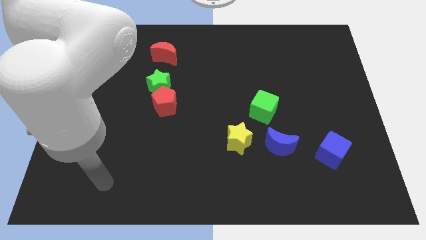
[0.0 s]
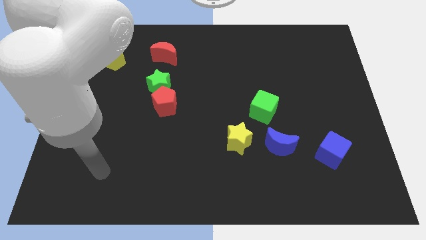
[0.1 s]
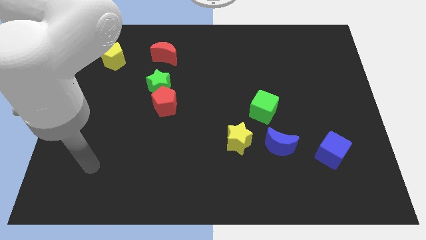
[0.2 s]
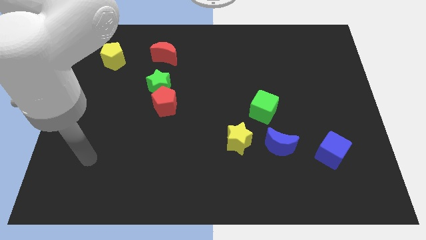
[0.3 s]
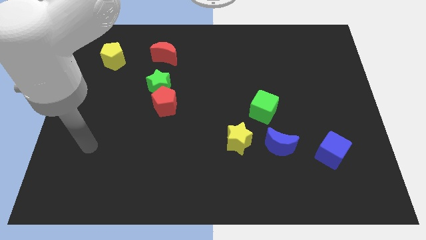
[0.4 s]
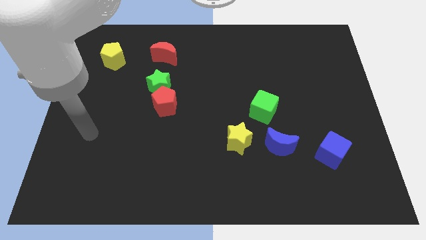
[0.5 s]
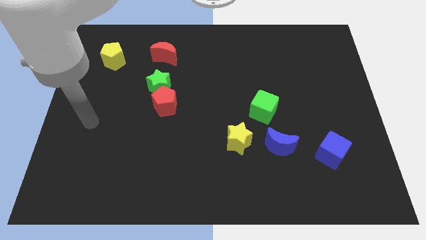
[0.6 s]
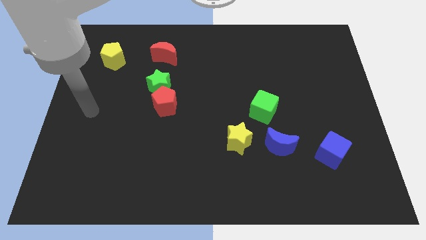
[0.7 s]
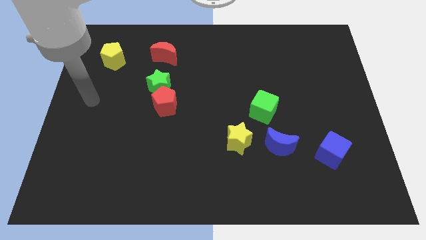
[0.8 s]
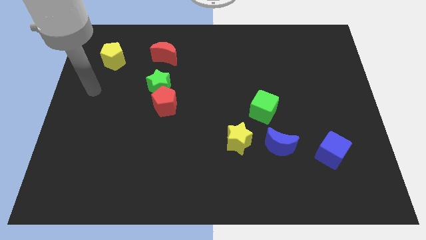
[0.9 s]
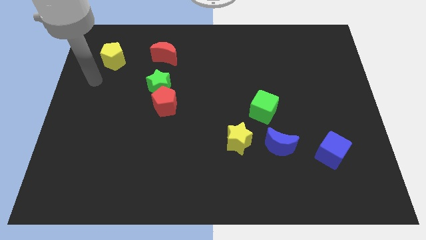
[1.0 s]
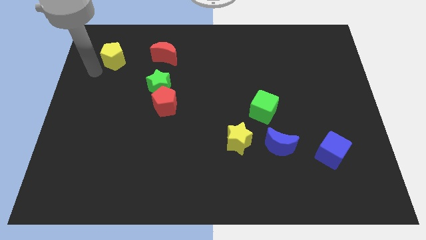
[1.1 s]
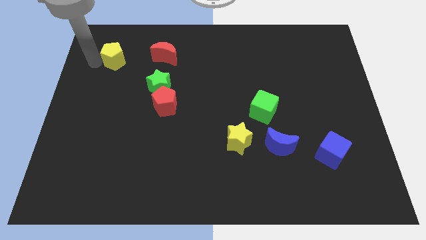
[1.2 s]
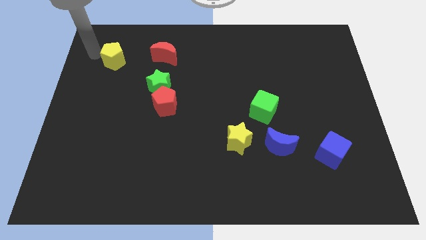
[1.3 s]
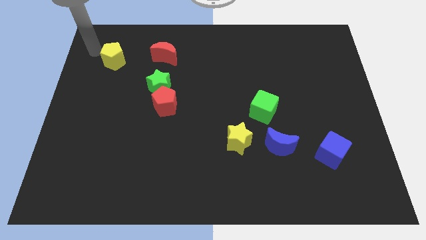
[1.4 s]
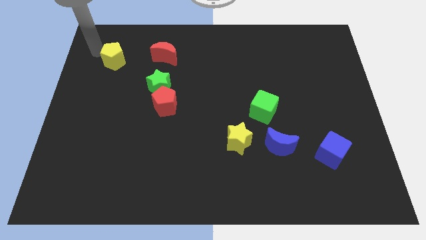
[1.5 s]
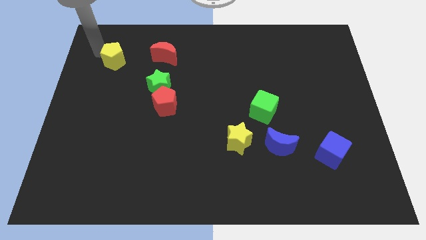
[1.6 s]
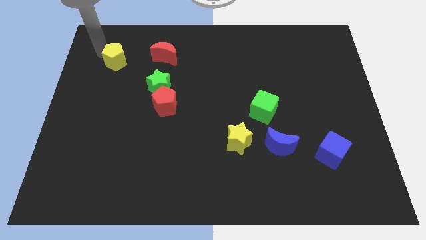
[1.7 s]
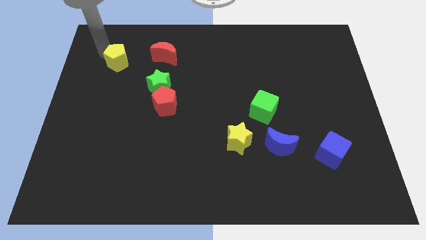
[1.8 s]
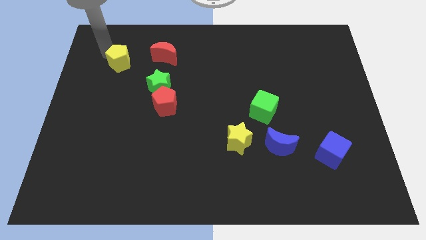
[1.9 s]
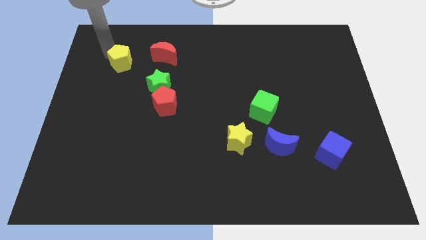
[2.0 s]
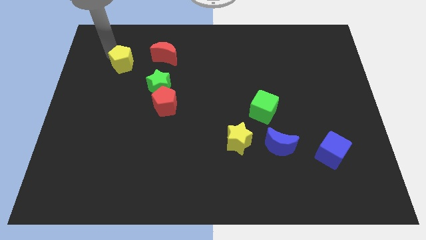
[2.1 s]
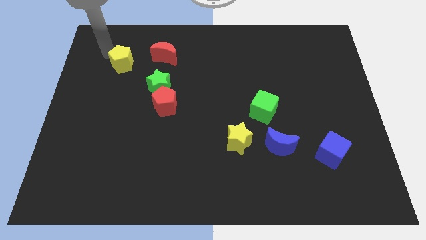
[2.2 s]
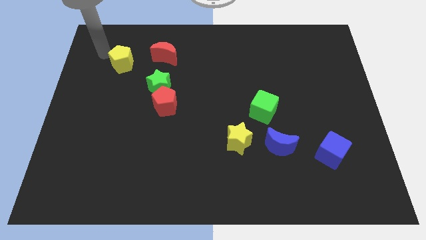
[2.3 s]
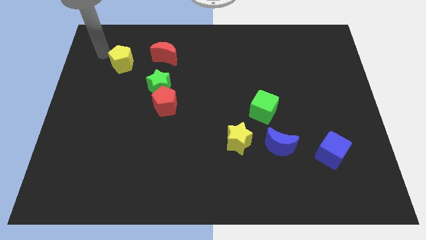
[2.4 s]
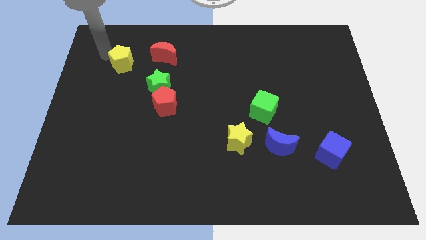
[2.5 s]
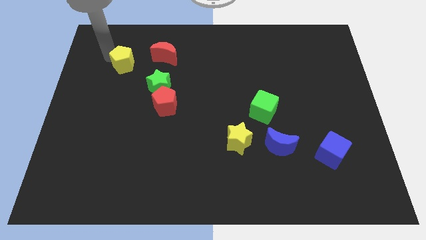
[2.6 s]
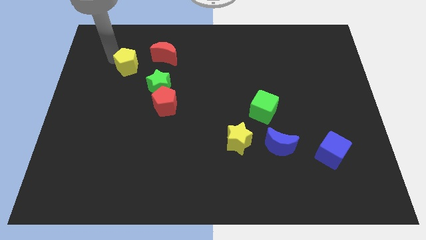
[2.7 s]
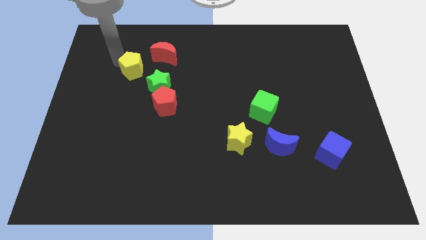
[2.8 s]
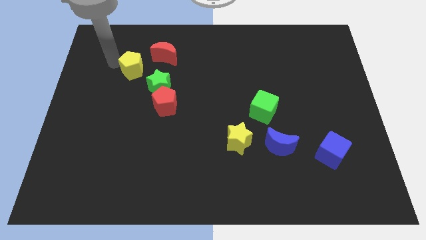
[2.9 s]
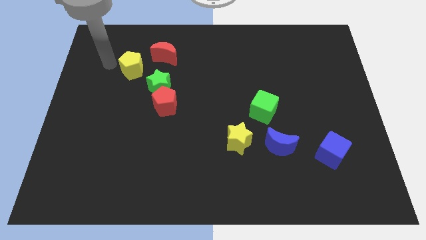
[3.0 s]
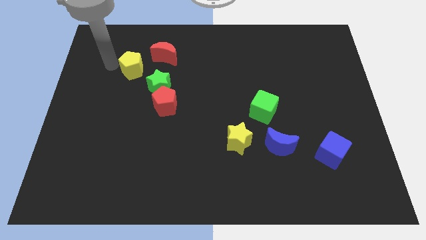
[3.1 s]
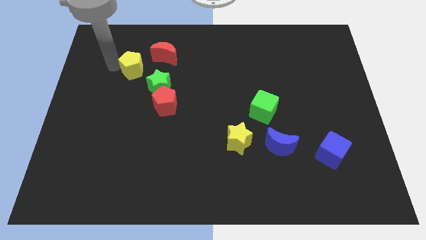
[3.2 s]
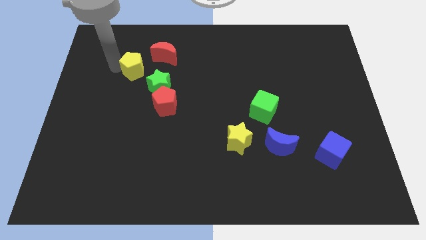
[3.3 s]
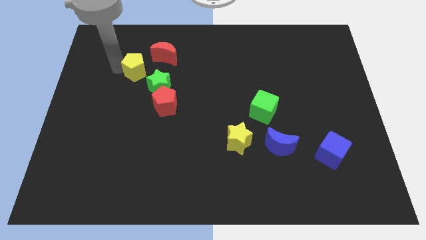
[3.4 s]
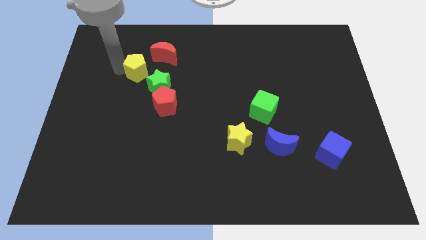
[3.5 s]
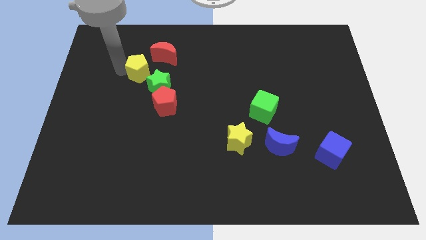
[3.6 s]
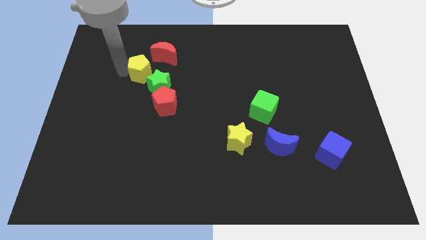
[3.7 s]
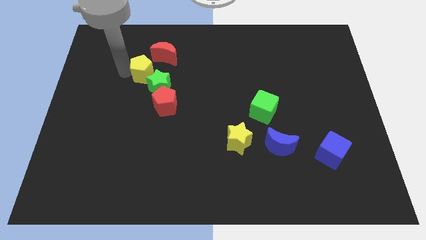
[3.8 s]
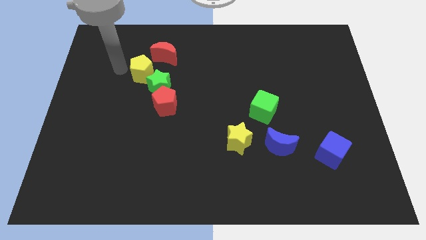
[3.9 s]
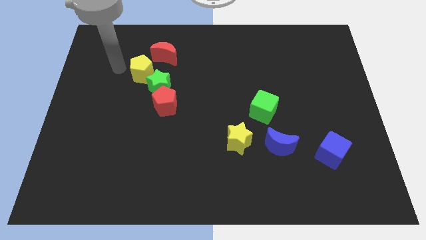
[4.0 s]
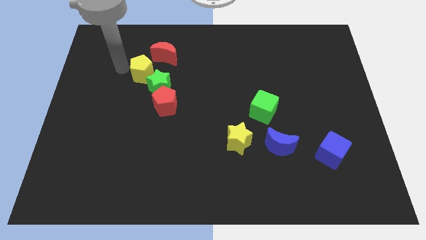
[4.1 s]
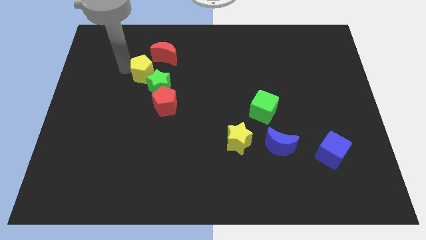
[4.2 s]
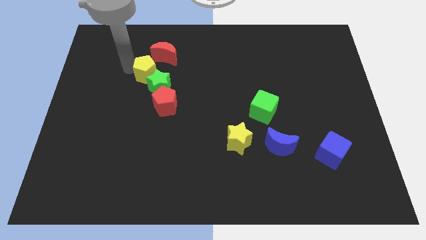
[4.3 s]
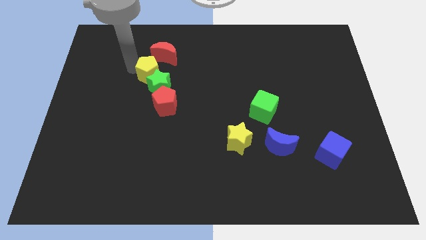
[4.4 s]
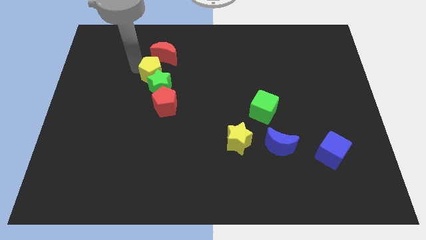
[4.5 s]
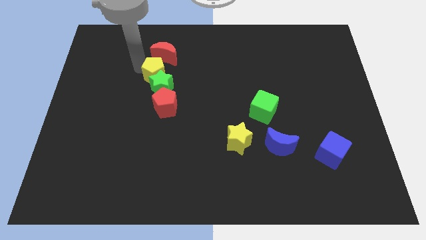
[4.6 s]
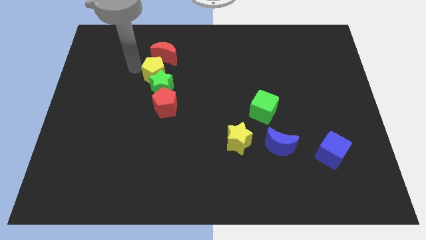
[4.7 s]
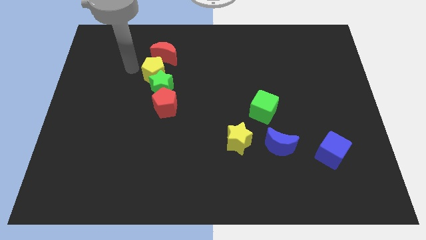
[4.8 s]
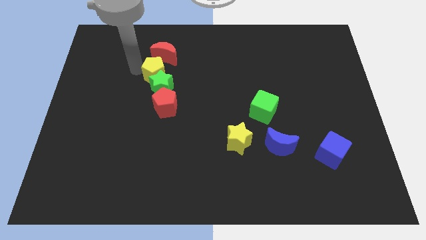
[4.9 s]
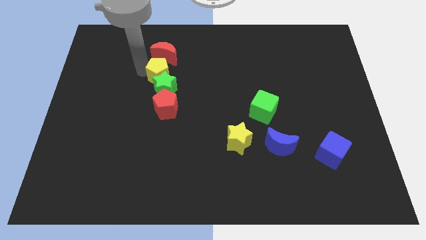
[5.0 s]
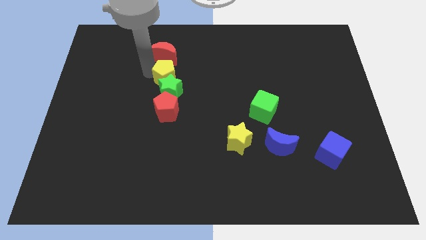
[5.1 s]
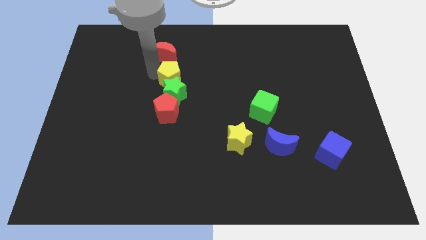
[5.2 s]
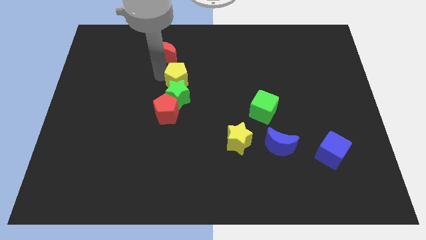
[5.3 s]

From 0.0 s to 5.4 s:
slide the yellow pentagon to the middle of the board

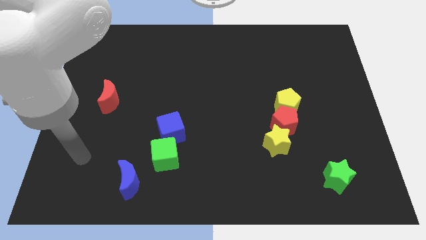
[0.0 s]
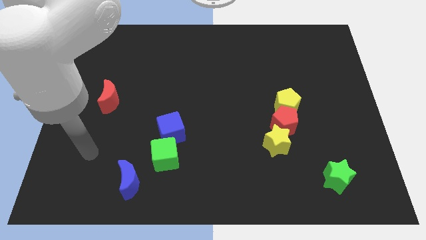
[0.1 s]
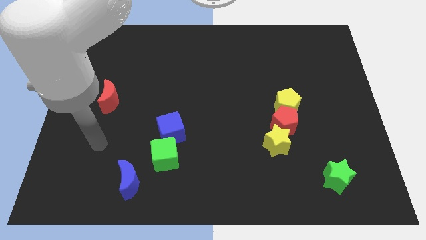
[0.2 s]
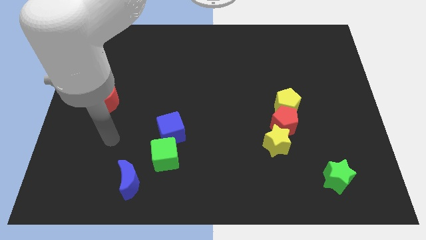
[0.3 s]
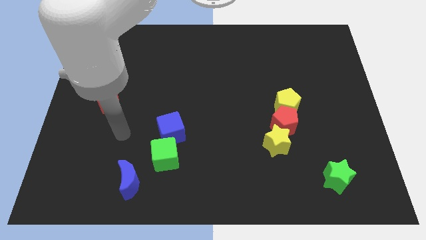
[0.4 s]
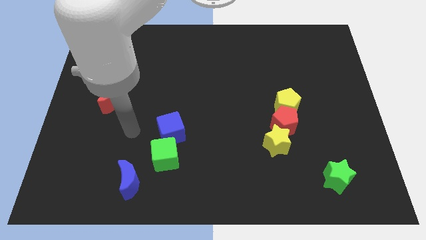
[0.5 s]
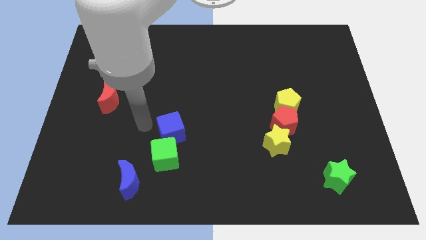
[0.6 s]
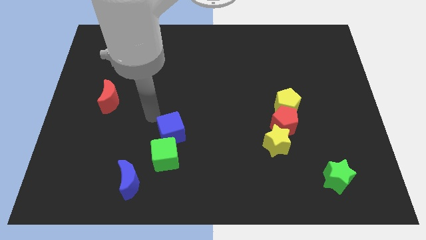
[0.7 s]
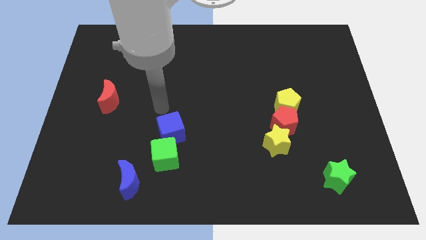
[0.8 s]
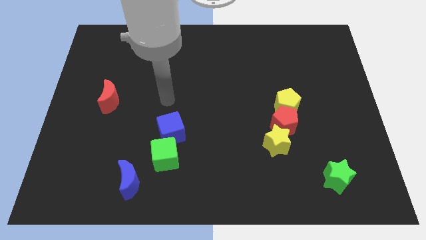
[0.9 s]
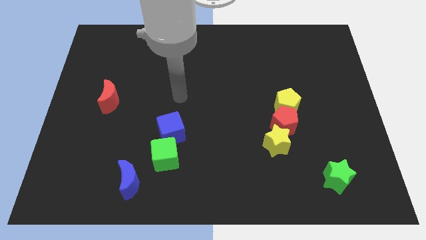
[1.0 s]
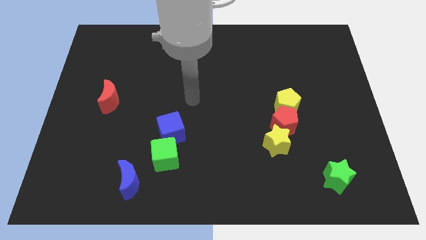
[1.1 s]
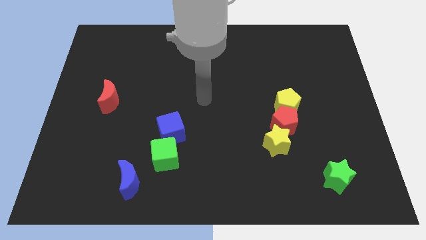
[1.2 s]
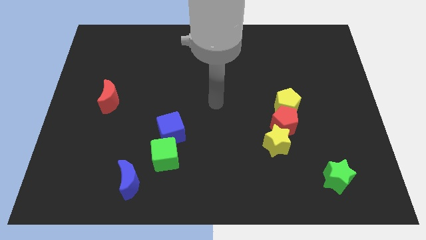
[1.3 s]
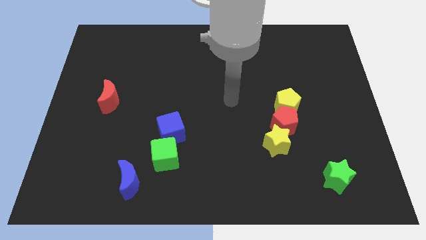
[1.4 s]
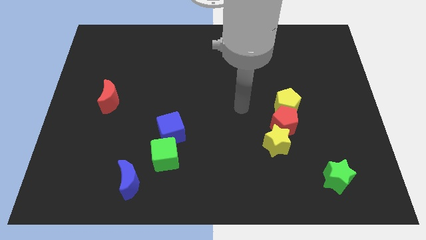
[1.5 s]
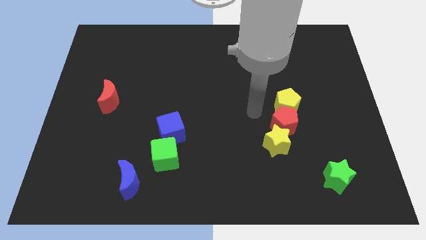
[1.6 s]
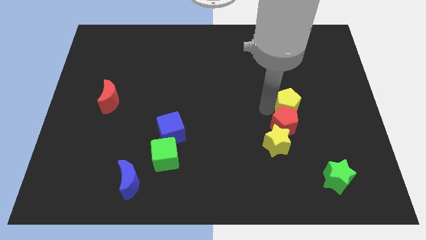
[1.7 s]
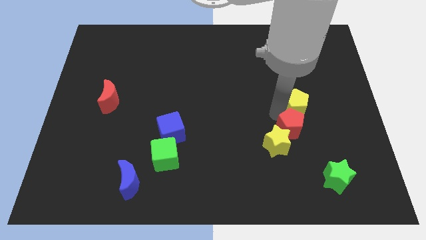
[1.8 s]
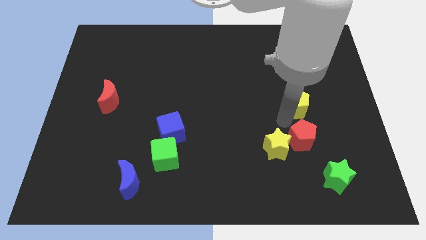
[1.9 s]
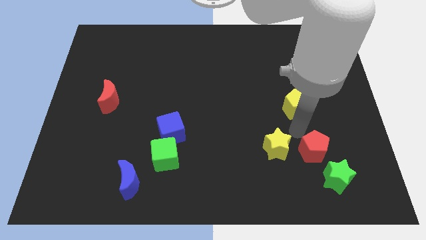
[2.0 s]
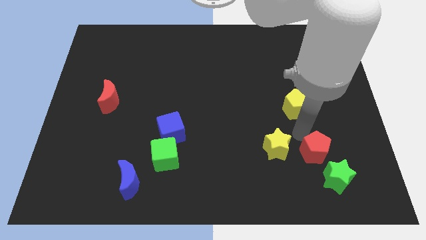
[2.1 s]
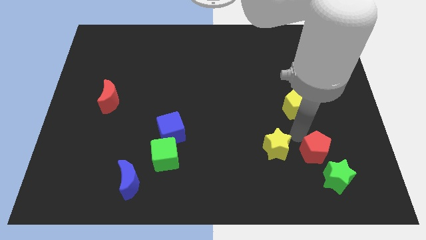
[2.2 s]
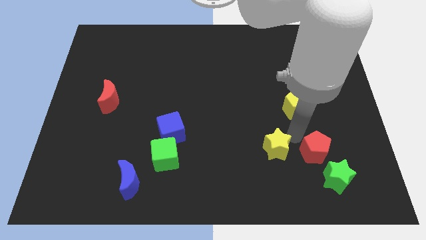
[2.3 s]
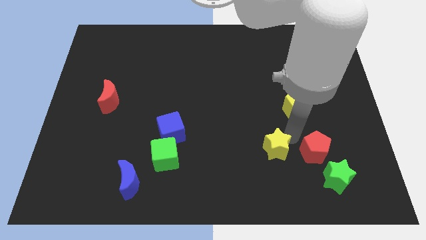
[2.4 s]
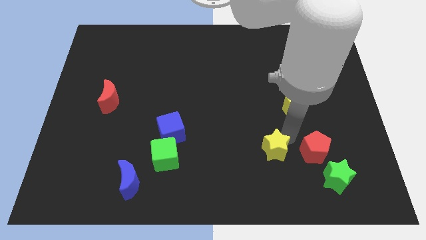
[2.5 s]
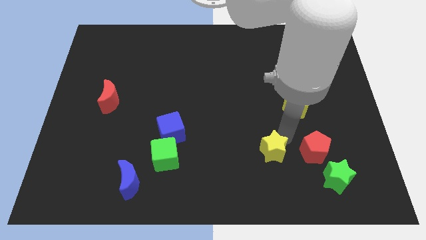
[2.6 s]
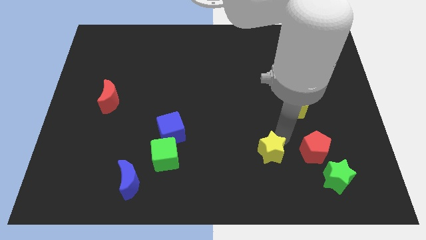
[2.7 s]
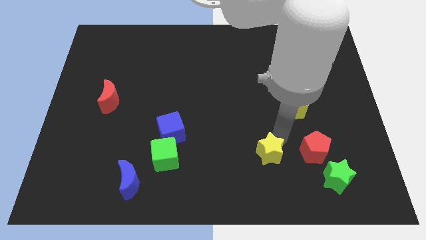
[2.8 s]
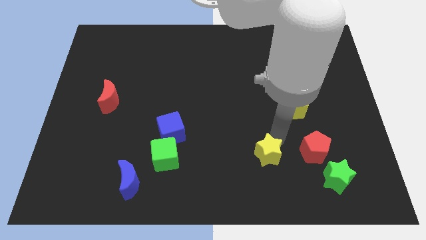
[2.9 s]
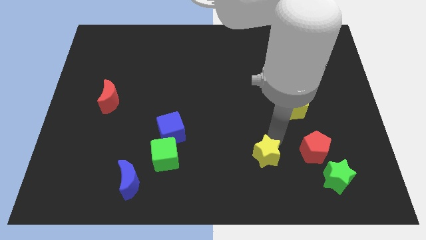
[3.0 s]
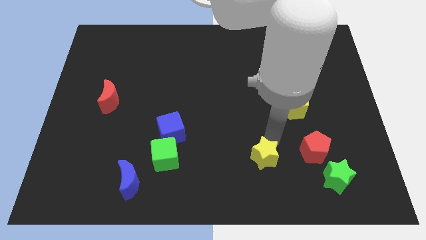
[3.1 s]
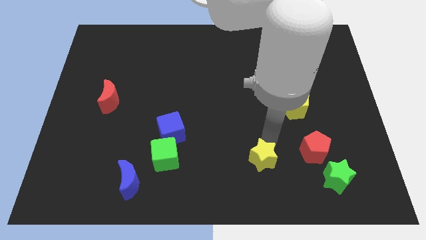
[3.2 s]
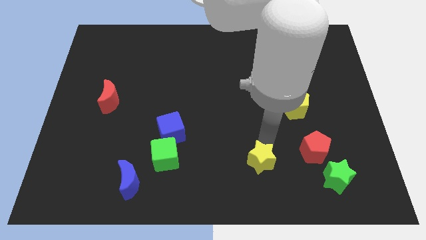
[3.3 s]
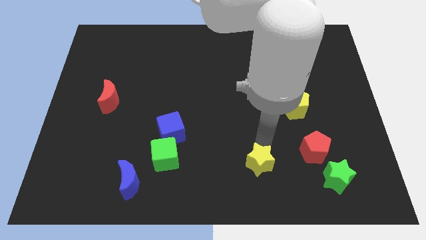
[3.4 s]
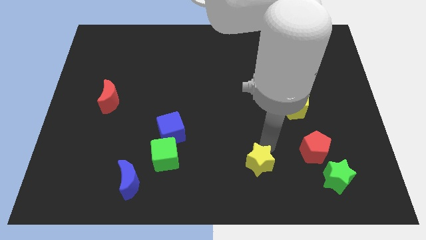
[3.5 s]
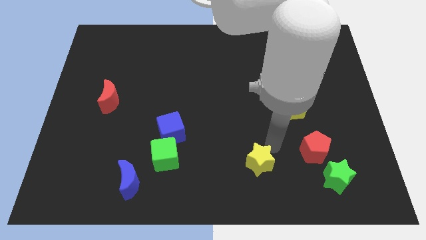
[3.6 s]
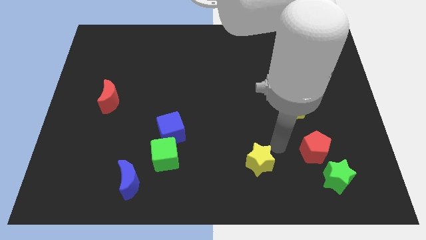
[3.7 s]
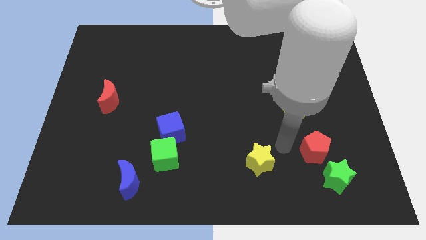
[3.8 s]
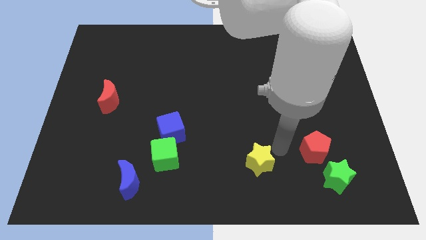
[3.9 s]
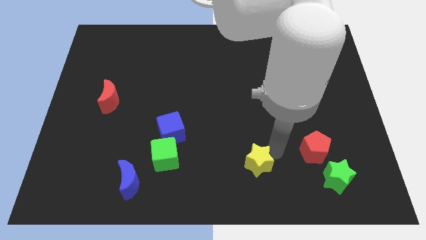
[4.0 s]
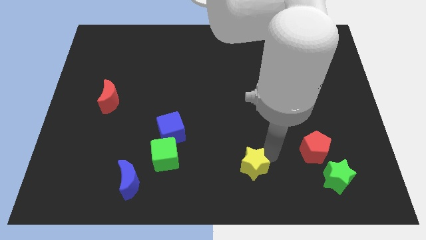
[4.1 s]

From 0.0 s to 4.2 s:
put the yellow star to the bottom side
